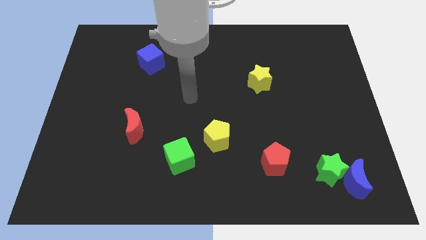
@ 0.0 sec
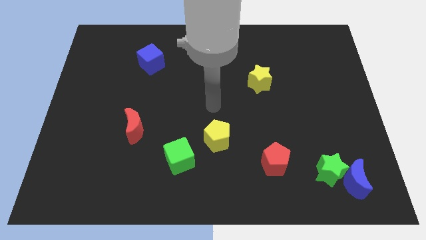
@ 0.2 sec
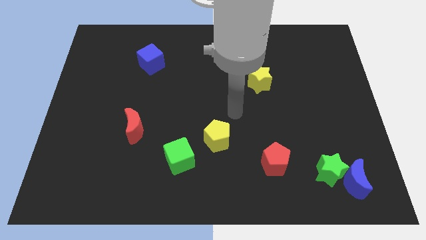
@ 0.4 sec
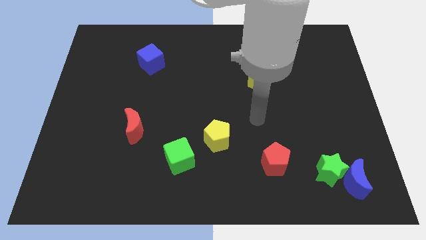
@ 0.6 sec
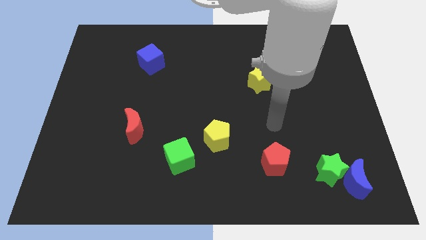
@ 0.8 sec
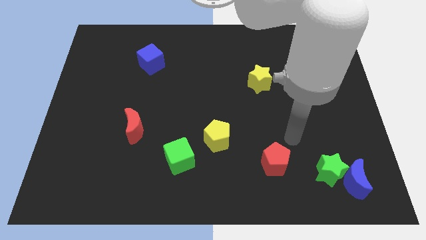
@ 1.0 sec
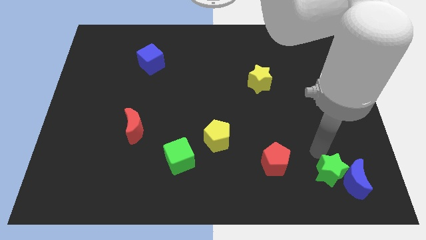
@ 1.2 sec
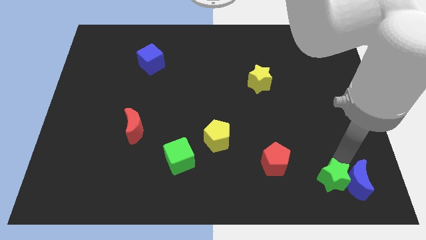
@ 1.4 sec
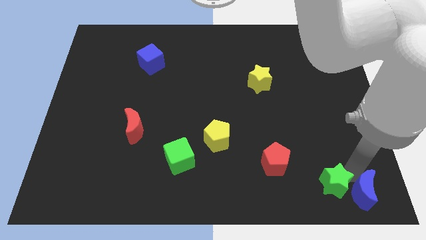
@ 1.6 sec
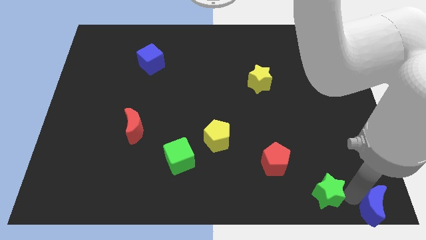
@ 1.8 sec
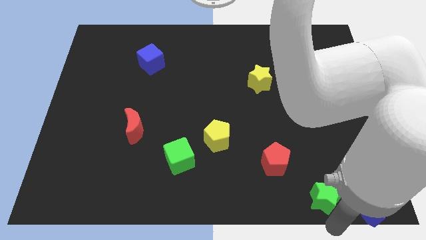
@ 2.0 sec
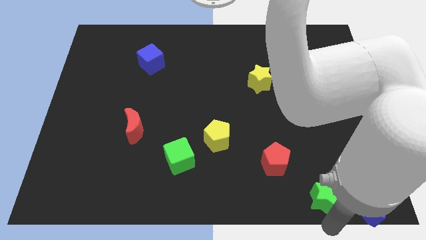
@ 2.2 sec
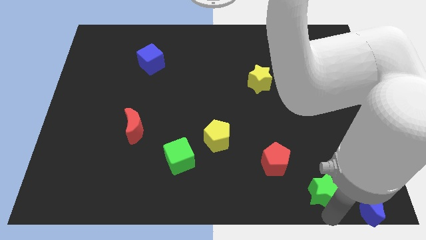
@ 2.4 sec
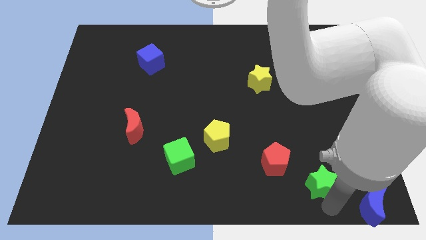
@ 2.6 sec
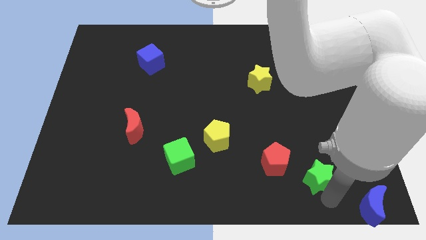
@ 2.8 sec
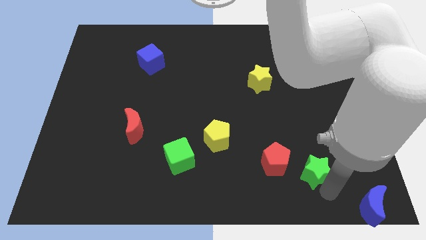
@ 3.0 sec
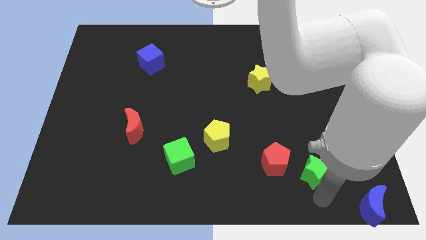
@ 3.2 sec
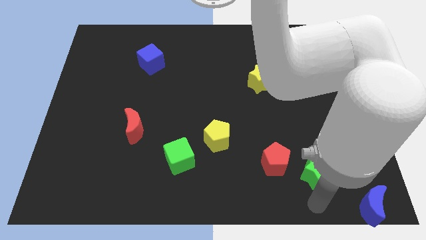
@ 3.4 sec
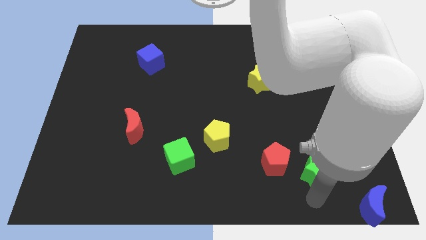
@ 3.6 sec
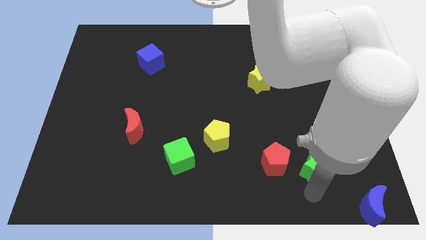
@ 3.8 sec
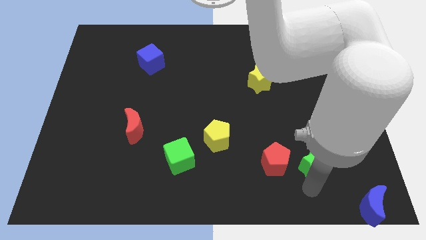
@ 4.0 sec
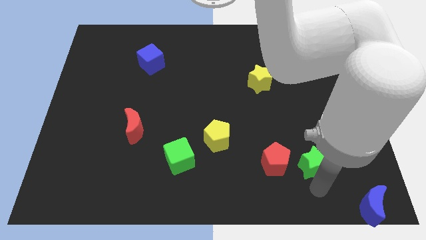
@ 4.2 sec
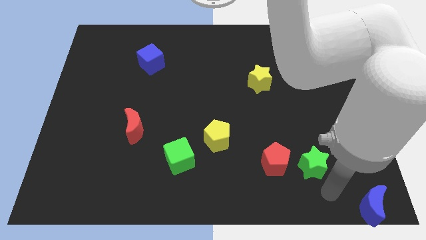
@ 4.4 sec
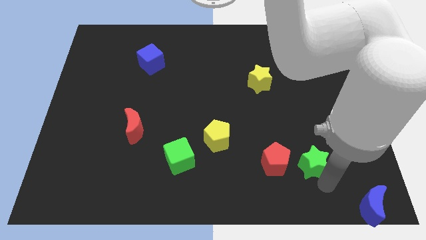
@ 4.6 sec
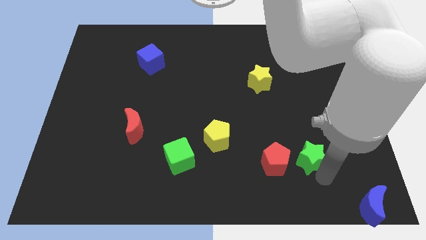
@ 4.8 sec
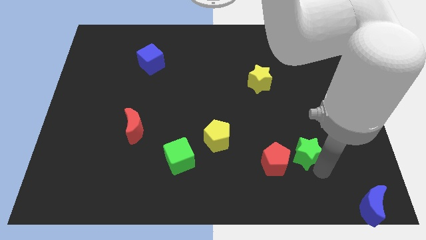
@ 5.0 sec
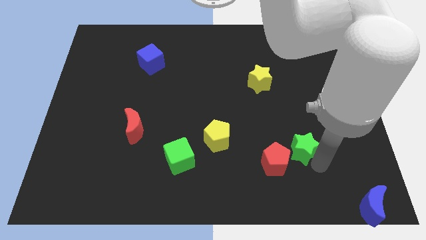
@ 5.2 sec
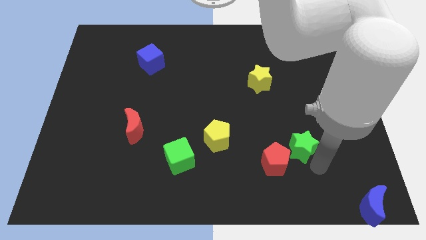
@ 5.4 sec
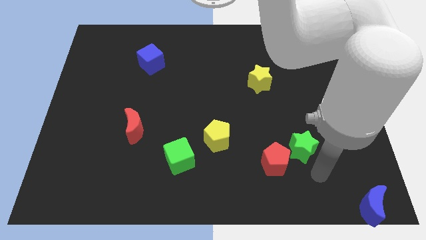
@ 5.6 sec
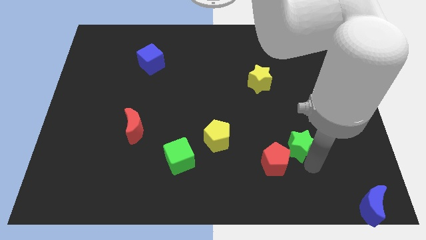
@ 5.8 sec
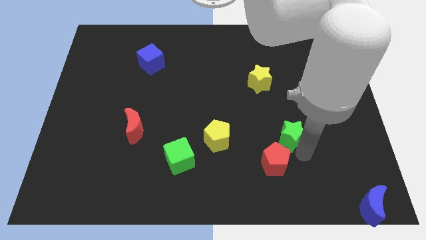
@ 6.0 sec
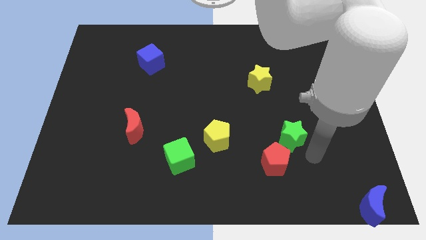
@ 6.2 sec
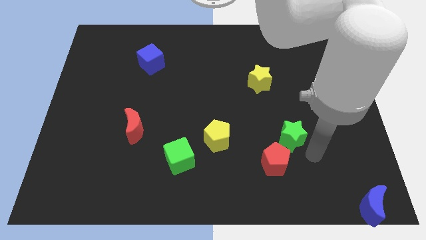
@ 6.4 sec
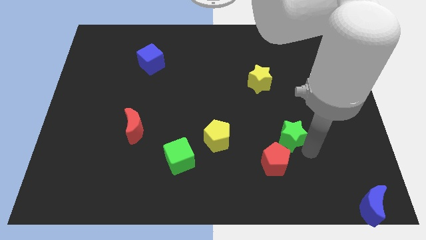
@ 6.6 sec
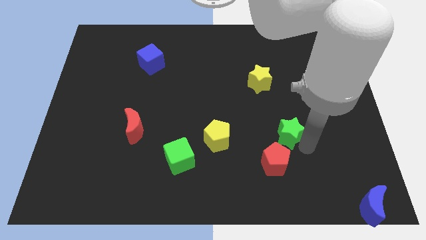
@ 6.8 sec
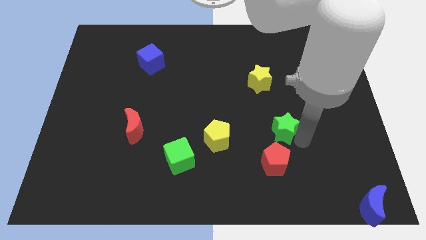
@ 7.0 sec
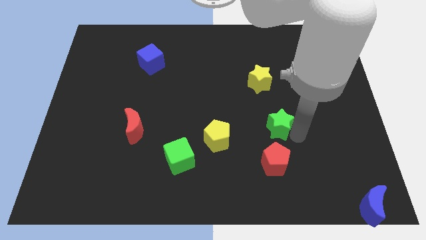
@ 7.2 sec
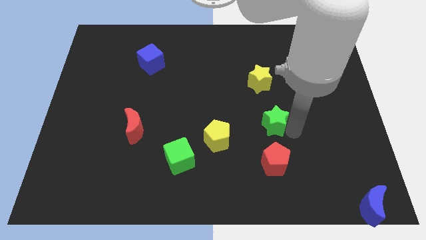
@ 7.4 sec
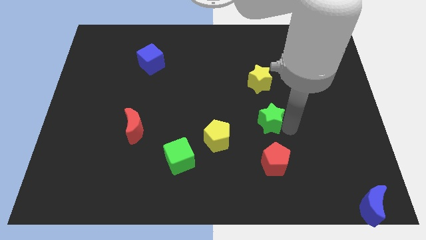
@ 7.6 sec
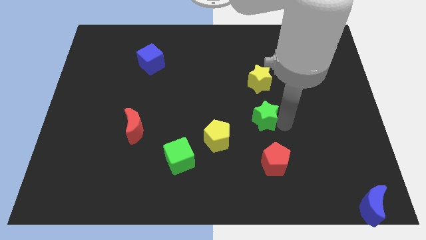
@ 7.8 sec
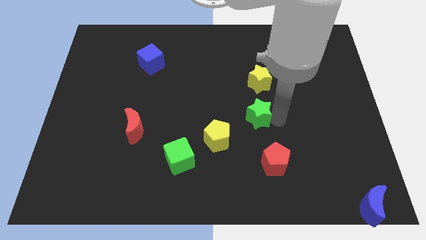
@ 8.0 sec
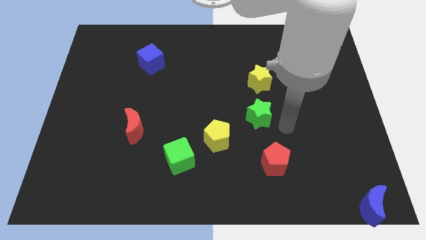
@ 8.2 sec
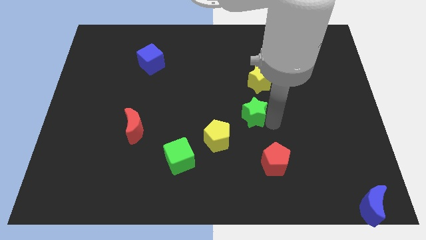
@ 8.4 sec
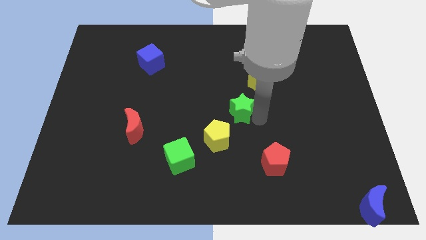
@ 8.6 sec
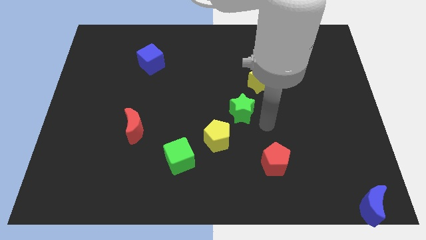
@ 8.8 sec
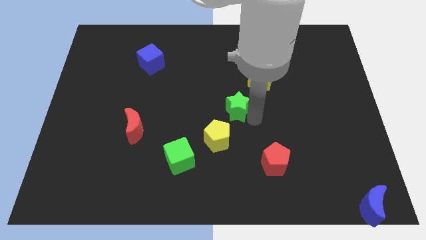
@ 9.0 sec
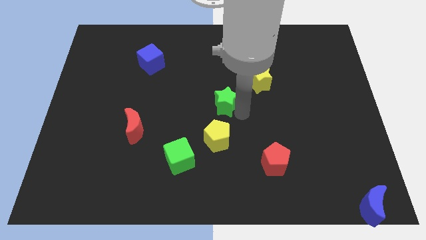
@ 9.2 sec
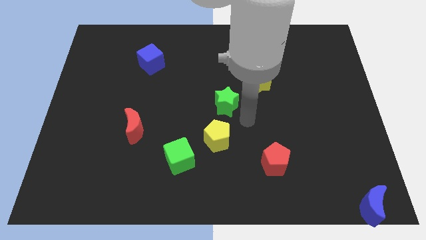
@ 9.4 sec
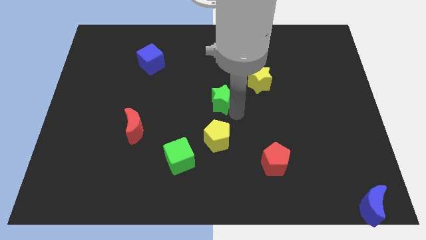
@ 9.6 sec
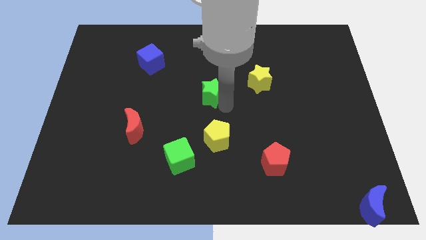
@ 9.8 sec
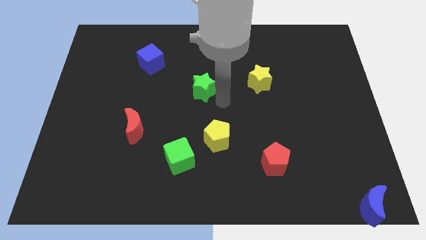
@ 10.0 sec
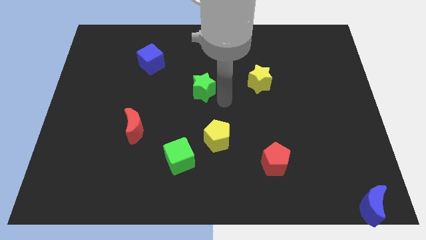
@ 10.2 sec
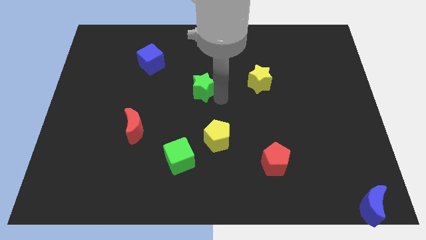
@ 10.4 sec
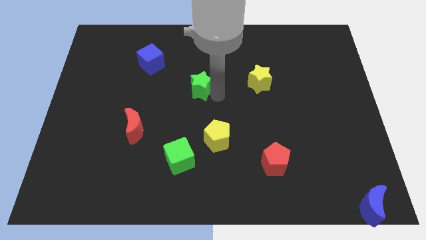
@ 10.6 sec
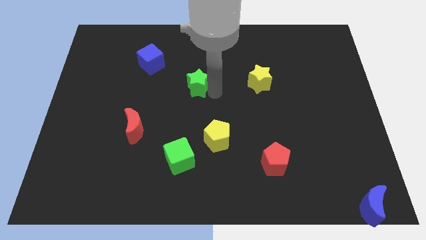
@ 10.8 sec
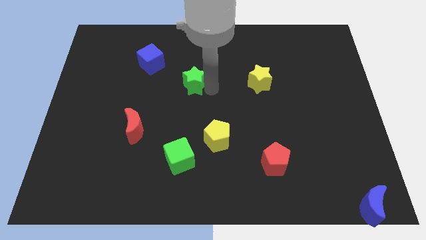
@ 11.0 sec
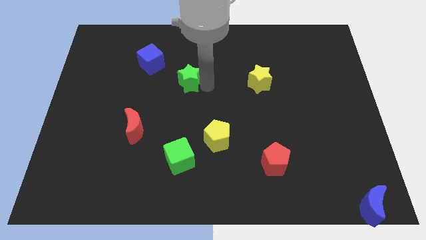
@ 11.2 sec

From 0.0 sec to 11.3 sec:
move the green star diagonally down and to the right of the blue cube

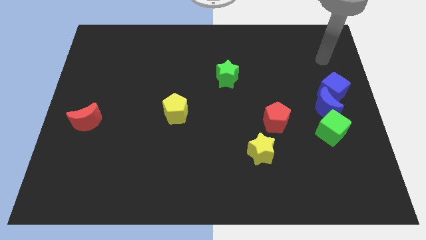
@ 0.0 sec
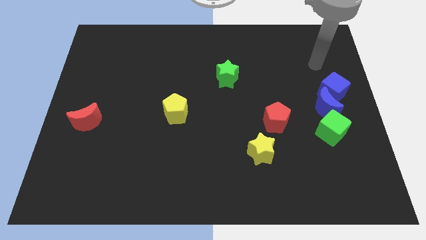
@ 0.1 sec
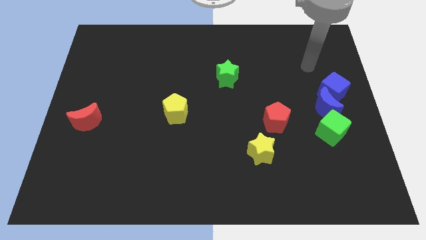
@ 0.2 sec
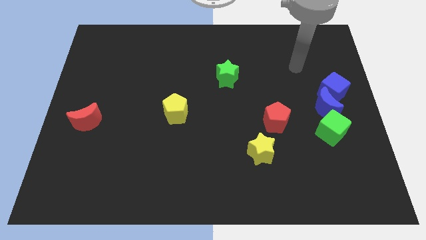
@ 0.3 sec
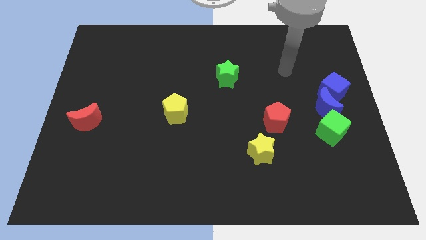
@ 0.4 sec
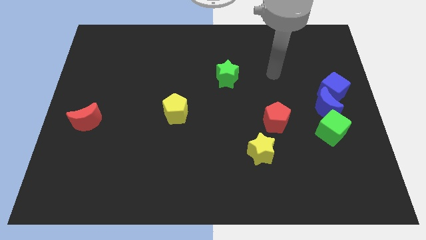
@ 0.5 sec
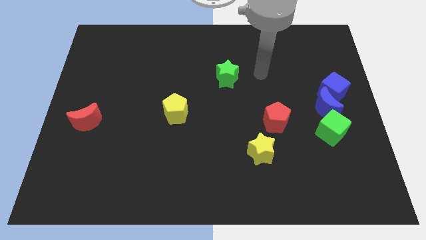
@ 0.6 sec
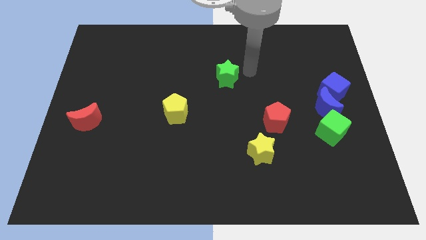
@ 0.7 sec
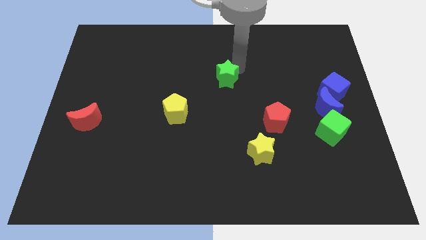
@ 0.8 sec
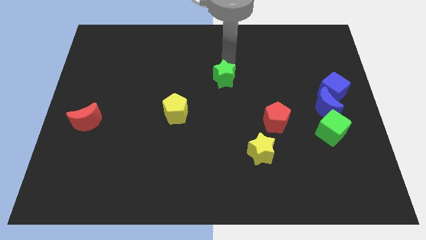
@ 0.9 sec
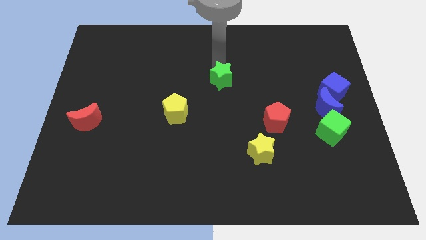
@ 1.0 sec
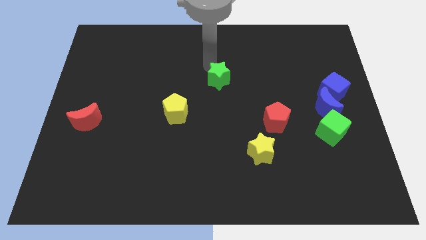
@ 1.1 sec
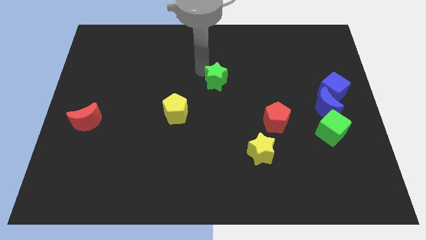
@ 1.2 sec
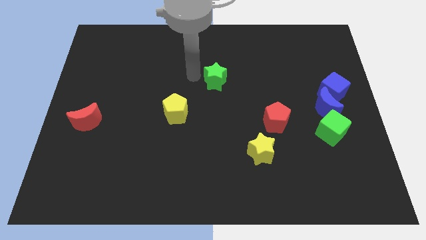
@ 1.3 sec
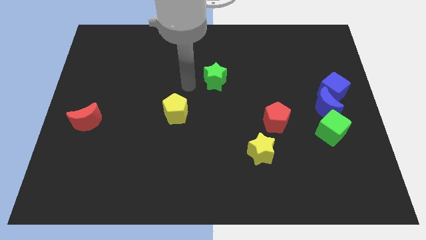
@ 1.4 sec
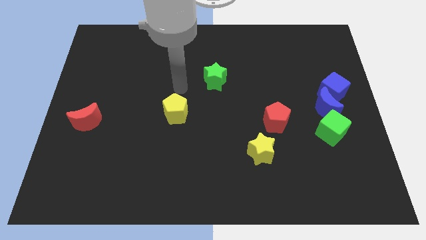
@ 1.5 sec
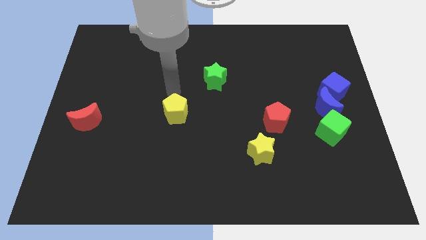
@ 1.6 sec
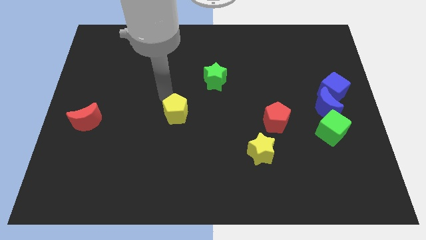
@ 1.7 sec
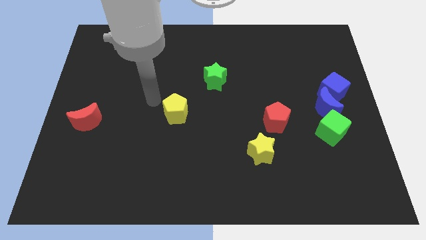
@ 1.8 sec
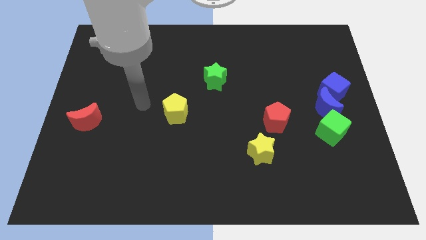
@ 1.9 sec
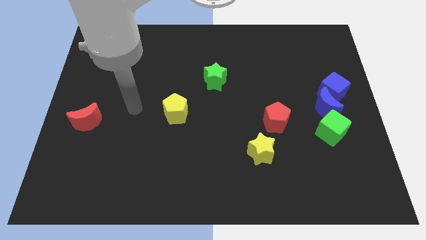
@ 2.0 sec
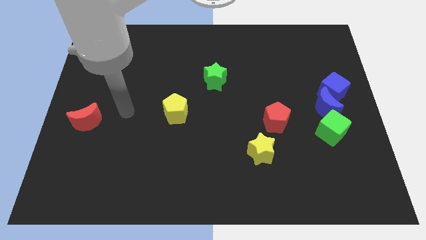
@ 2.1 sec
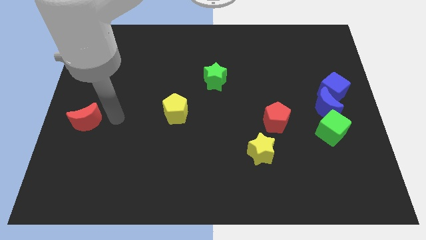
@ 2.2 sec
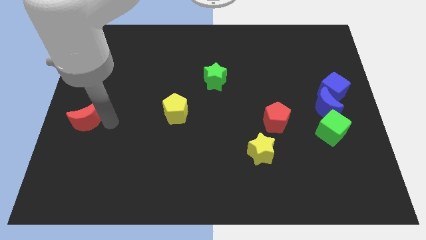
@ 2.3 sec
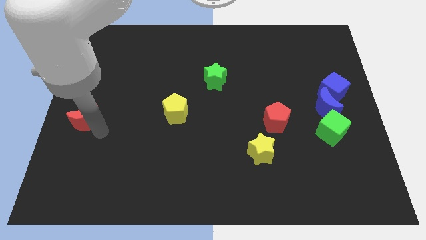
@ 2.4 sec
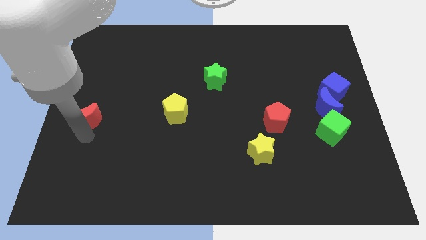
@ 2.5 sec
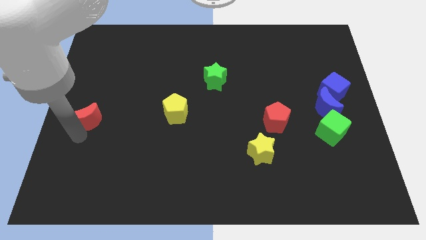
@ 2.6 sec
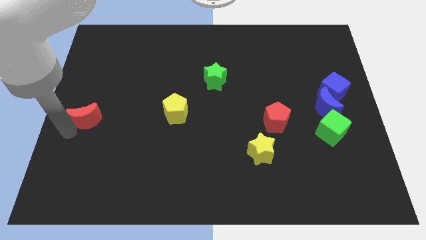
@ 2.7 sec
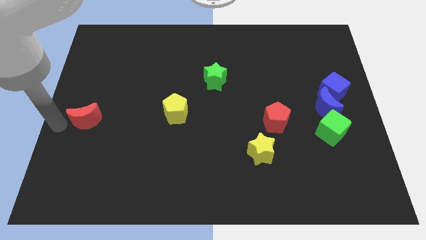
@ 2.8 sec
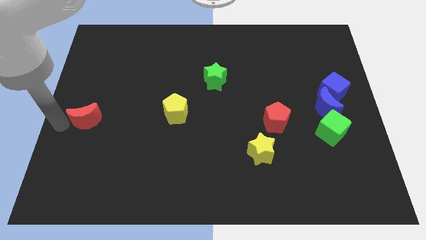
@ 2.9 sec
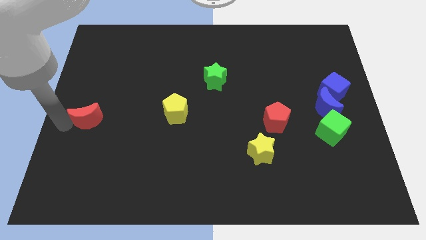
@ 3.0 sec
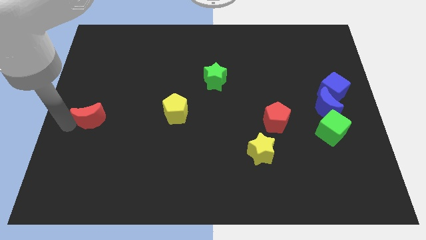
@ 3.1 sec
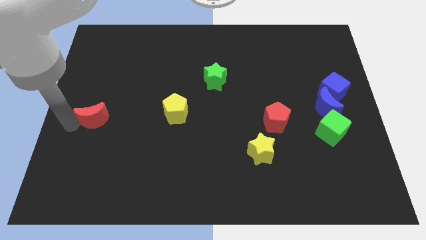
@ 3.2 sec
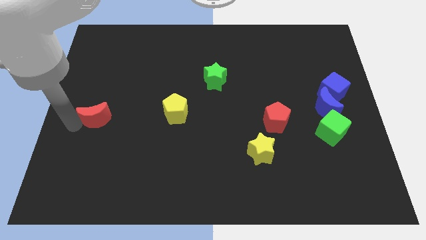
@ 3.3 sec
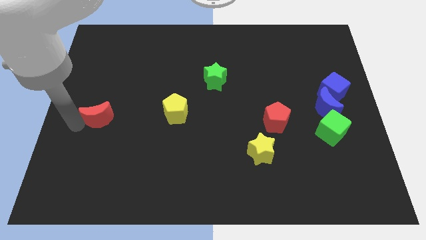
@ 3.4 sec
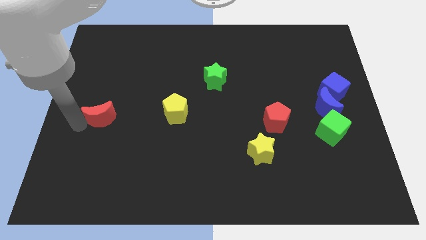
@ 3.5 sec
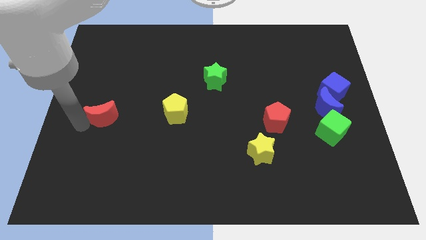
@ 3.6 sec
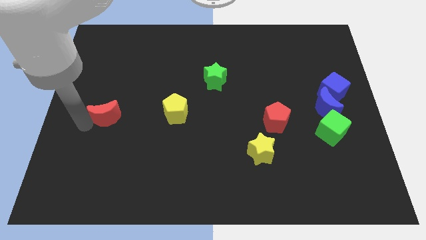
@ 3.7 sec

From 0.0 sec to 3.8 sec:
slide the red moon to the left side of the yellow pentagon
